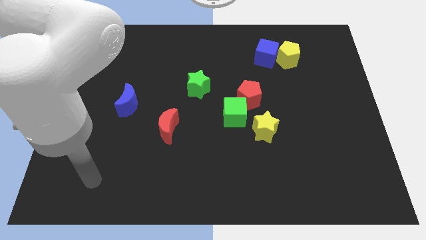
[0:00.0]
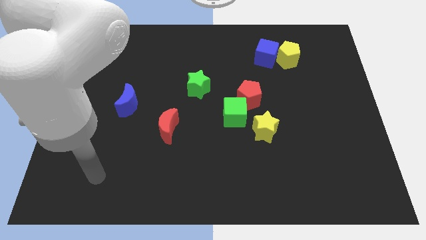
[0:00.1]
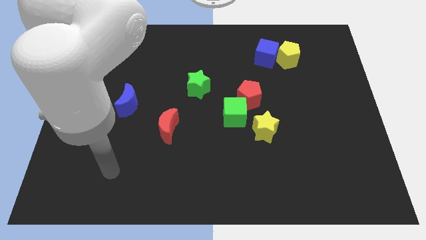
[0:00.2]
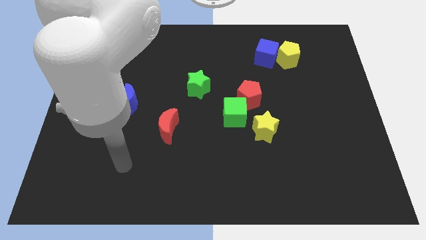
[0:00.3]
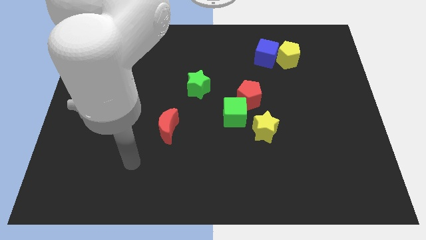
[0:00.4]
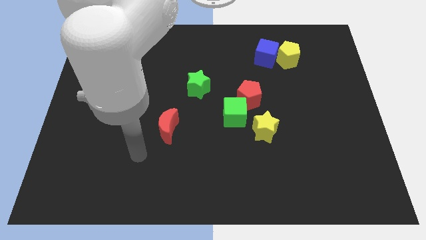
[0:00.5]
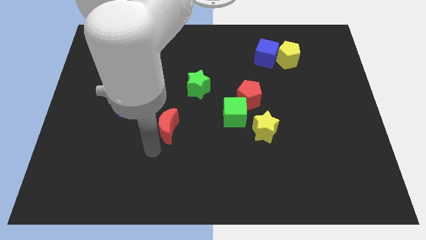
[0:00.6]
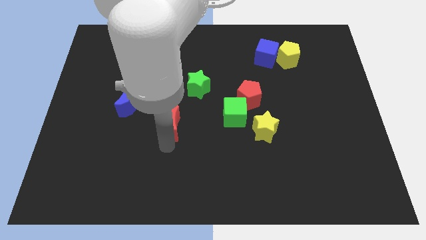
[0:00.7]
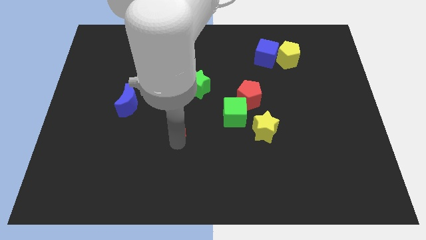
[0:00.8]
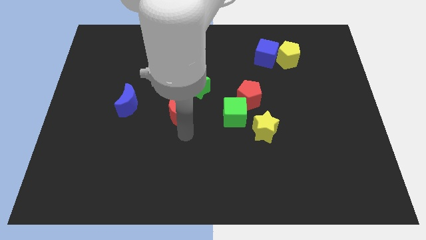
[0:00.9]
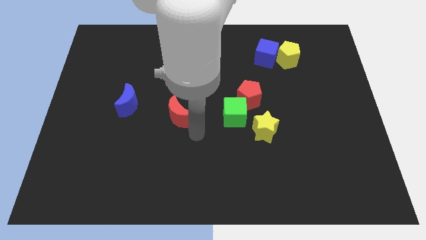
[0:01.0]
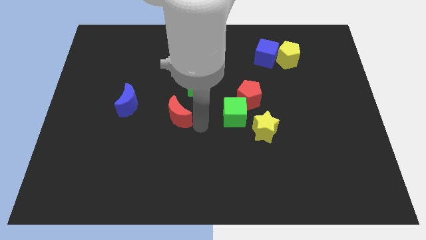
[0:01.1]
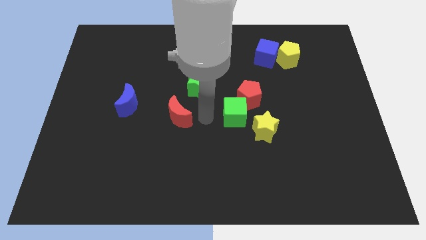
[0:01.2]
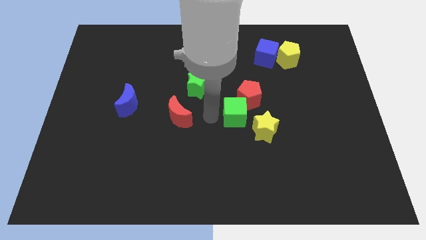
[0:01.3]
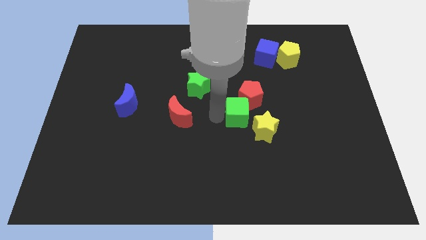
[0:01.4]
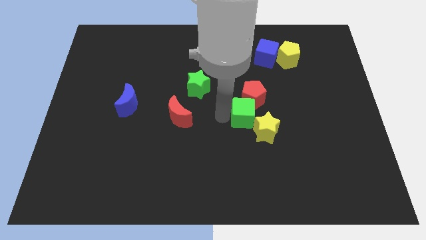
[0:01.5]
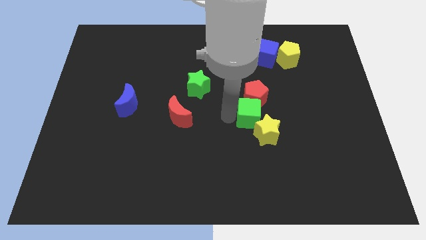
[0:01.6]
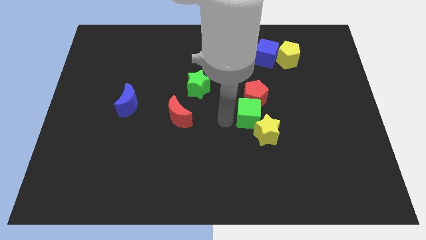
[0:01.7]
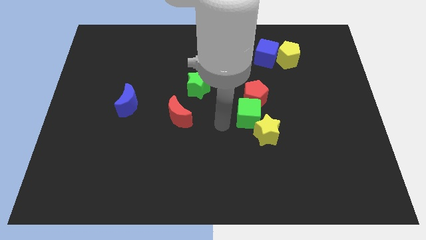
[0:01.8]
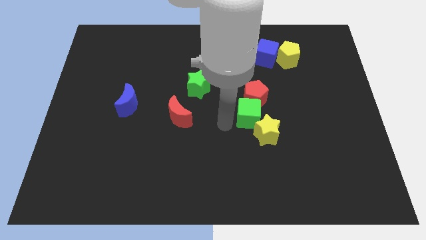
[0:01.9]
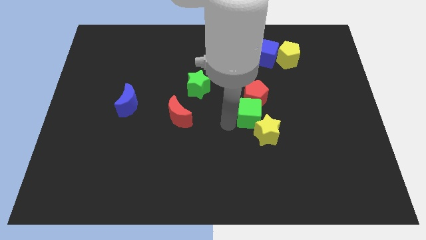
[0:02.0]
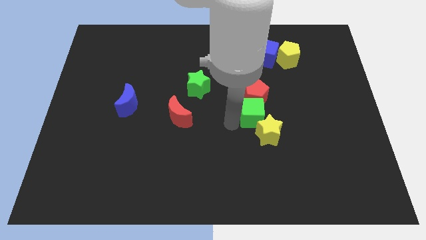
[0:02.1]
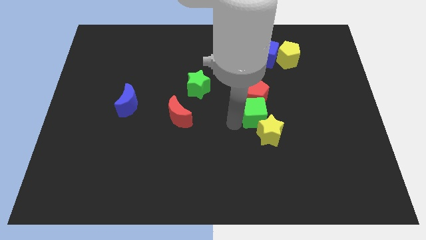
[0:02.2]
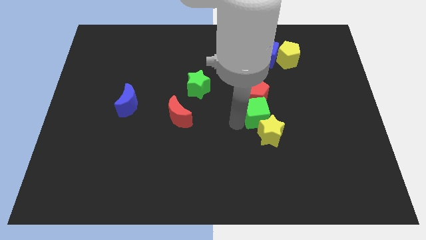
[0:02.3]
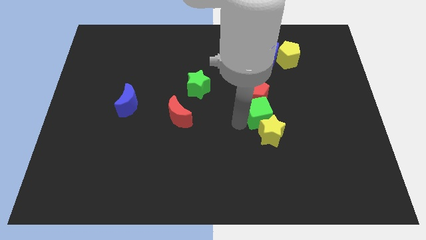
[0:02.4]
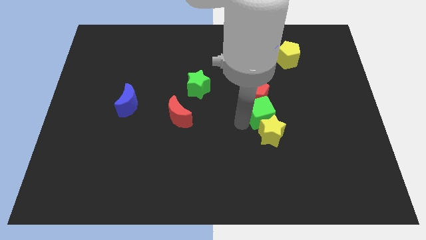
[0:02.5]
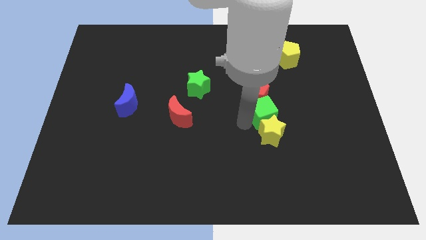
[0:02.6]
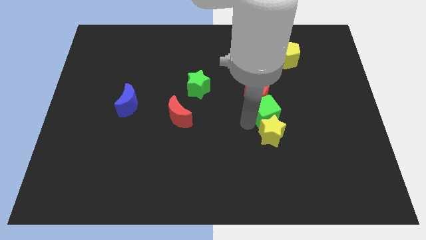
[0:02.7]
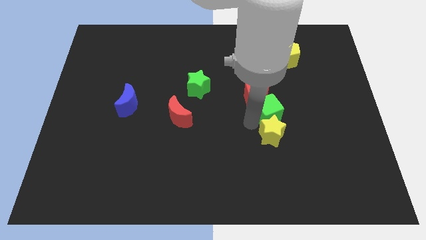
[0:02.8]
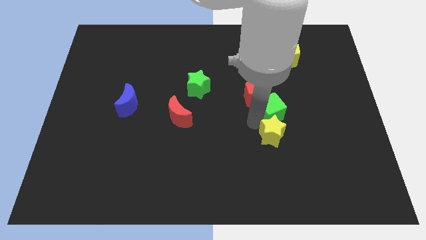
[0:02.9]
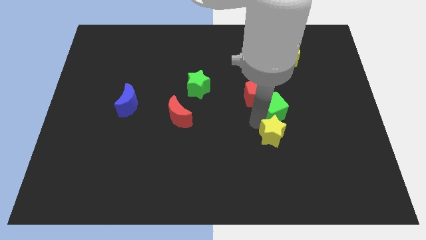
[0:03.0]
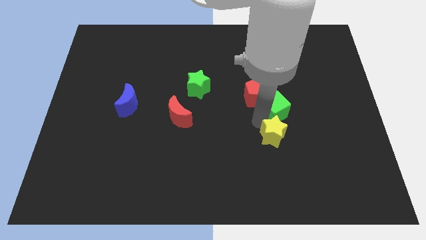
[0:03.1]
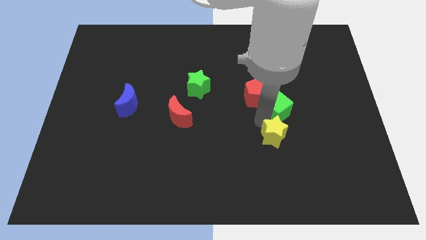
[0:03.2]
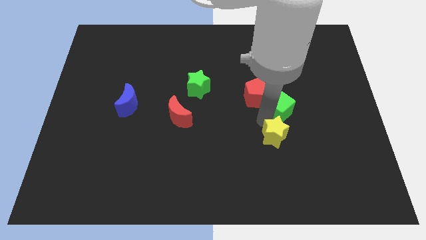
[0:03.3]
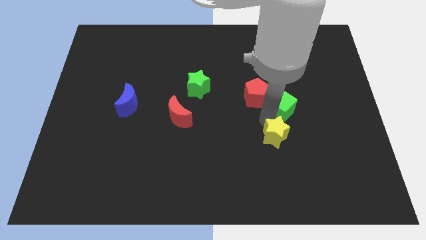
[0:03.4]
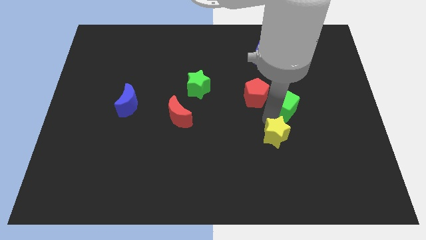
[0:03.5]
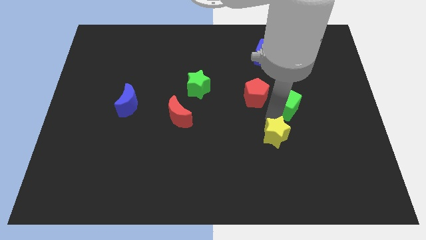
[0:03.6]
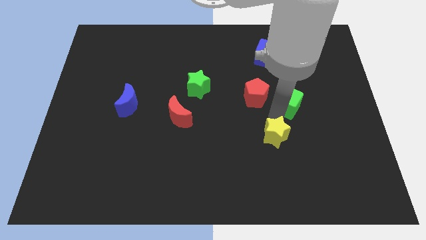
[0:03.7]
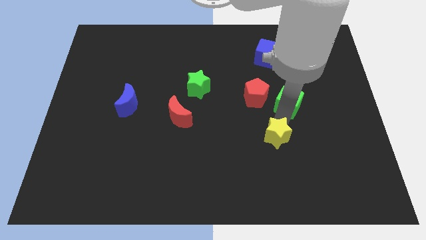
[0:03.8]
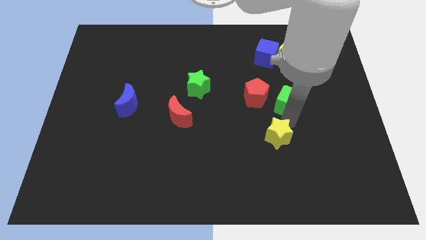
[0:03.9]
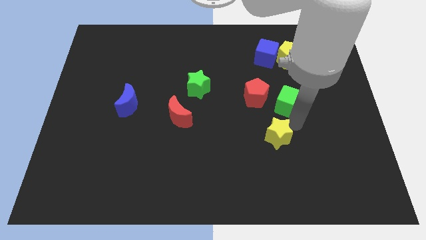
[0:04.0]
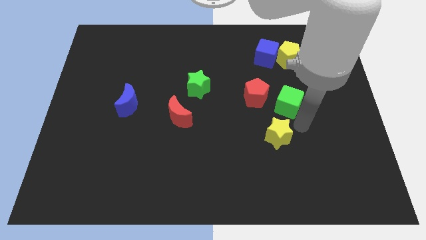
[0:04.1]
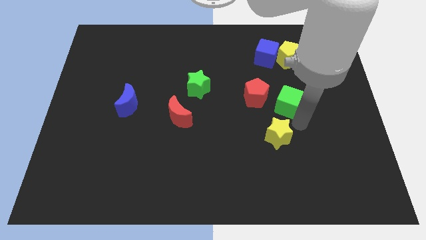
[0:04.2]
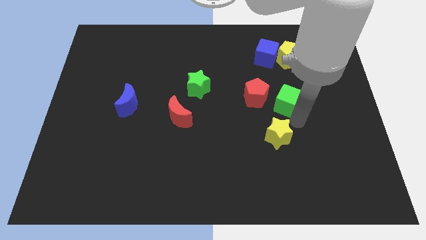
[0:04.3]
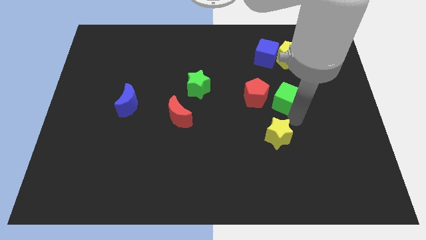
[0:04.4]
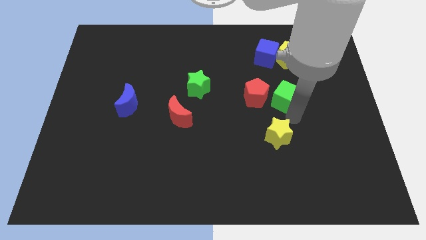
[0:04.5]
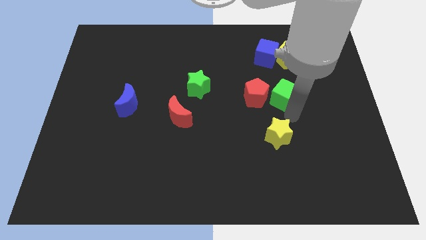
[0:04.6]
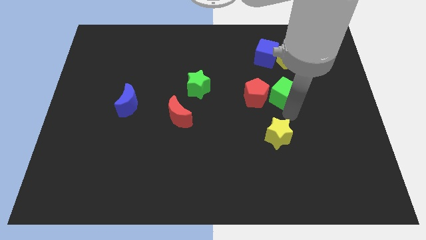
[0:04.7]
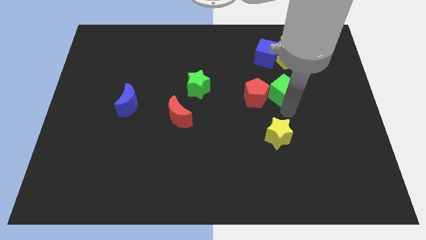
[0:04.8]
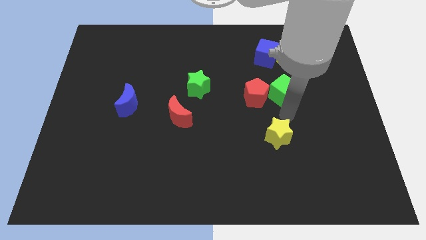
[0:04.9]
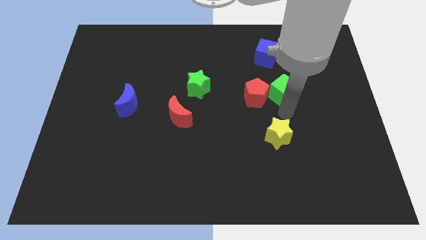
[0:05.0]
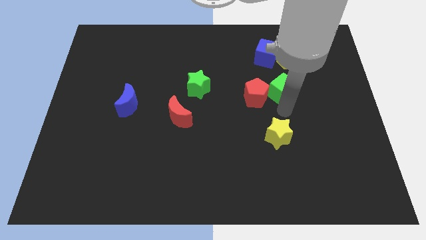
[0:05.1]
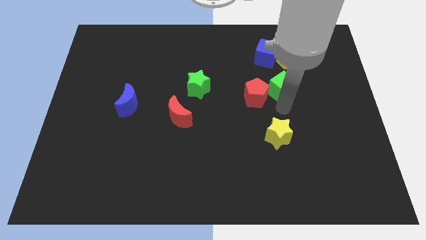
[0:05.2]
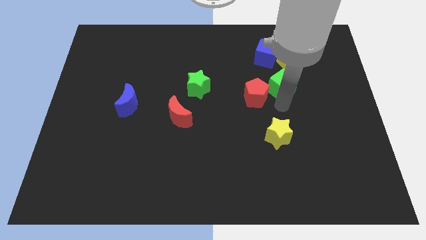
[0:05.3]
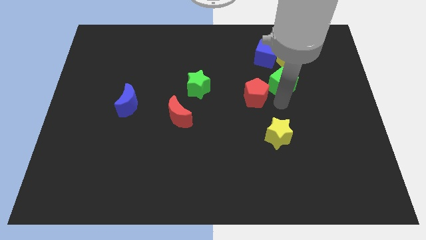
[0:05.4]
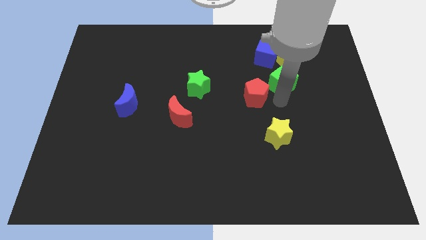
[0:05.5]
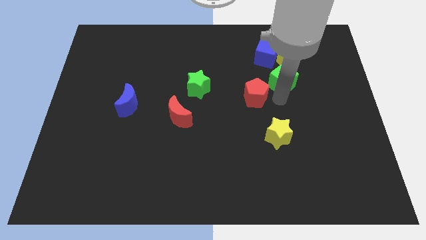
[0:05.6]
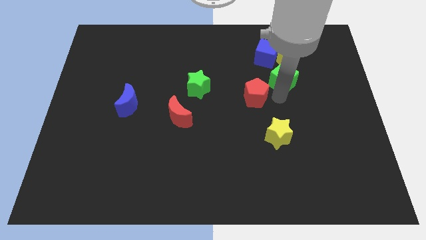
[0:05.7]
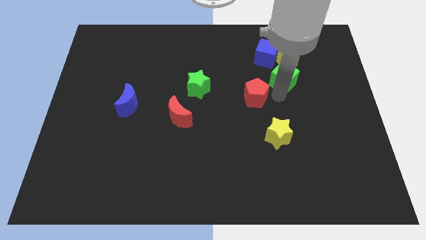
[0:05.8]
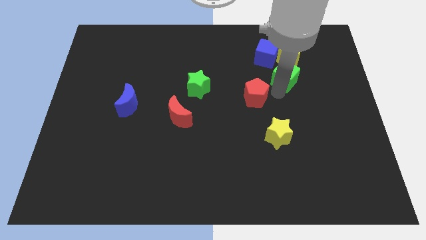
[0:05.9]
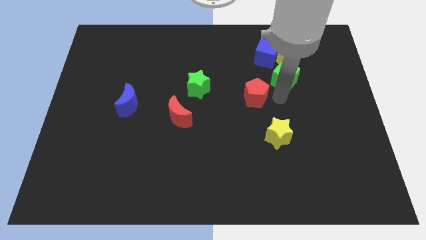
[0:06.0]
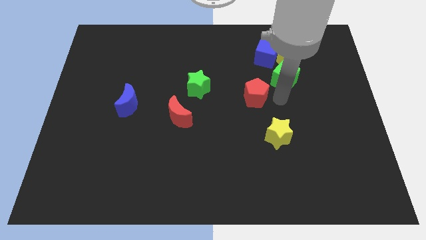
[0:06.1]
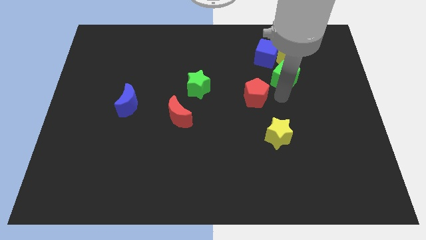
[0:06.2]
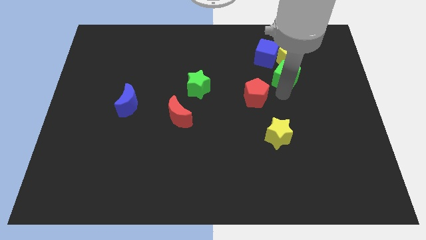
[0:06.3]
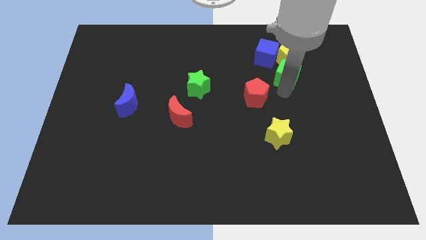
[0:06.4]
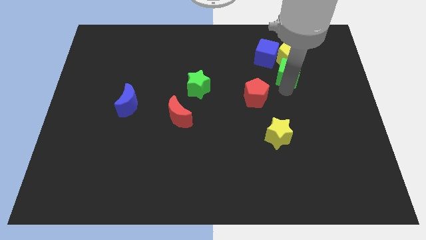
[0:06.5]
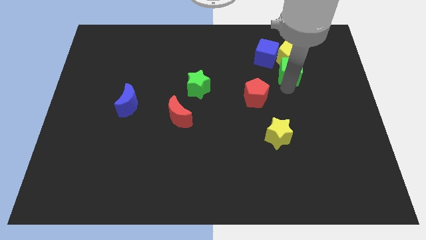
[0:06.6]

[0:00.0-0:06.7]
push the green cube close to the yellow pentagon

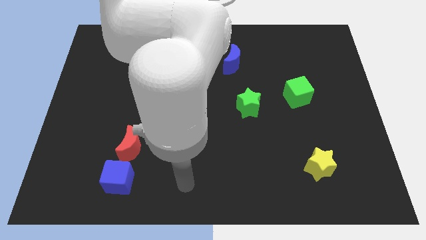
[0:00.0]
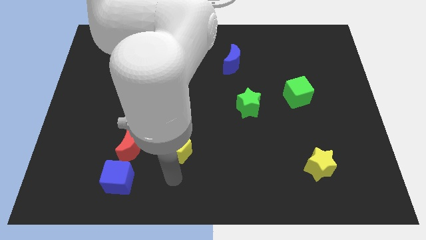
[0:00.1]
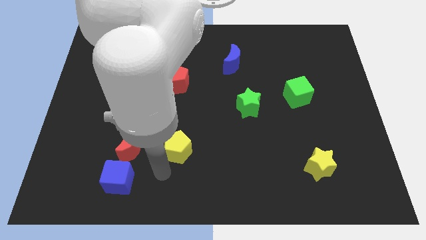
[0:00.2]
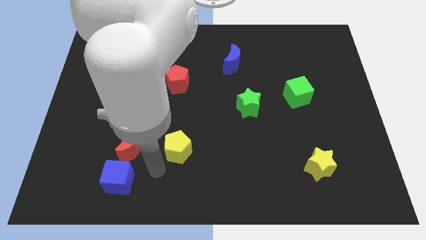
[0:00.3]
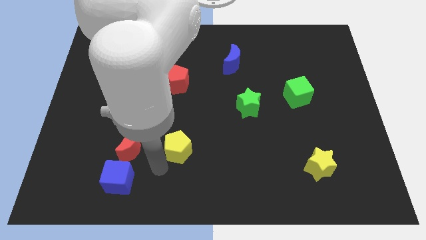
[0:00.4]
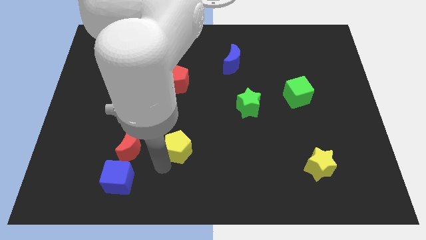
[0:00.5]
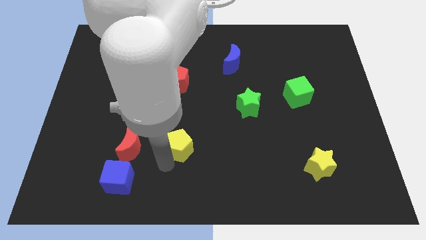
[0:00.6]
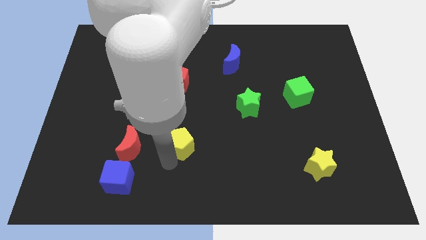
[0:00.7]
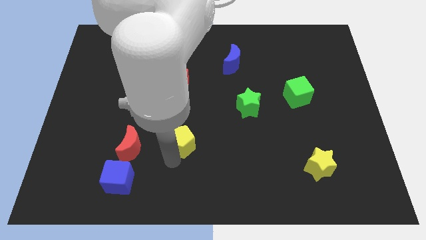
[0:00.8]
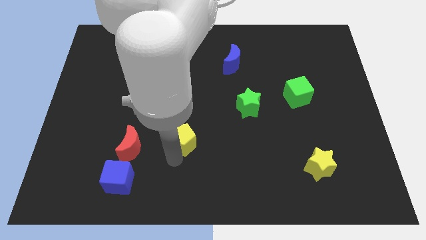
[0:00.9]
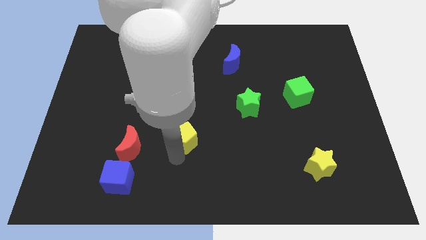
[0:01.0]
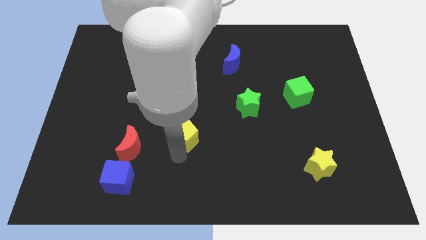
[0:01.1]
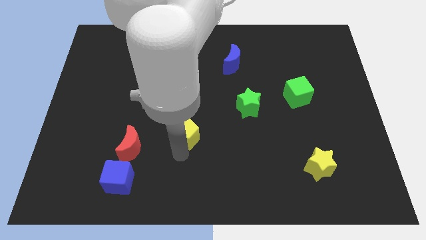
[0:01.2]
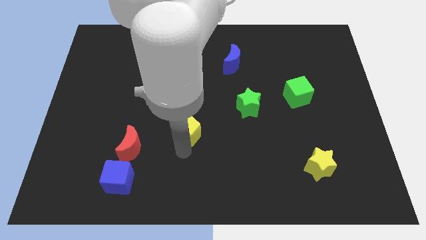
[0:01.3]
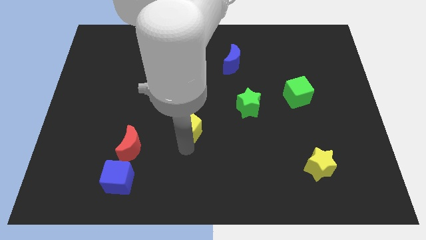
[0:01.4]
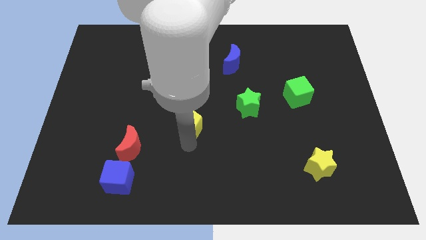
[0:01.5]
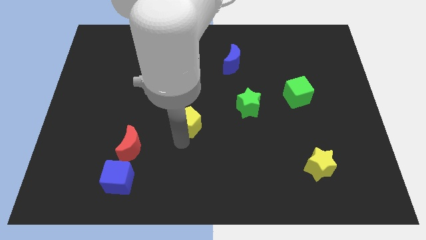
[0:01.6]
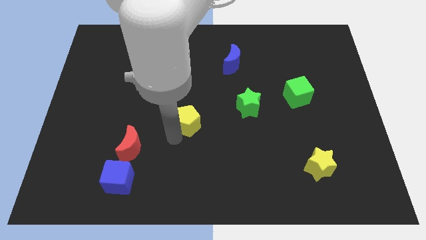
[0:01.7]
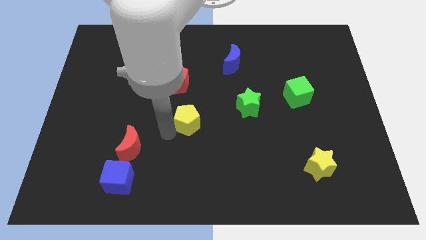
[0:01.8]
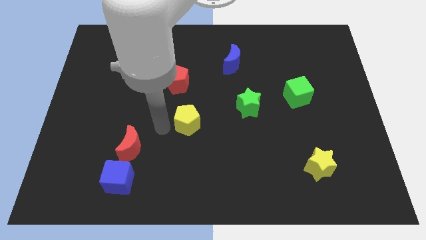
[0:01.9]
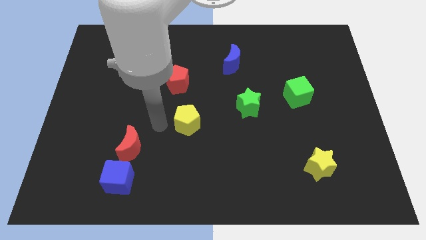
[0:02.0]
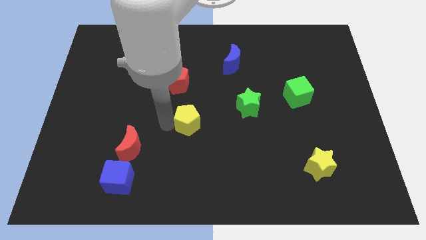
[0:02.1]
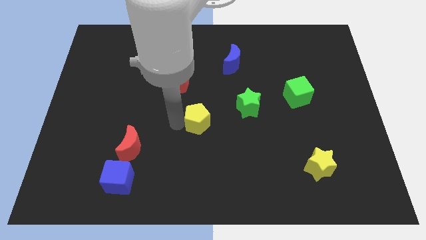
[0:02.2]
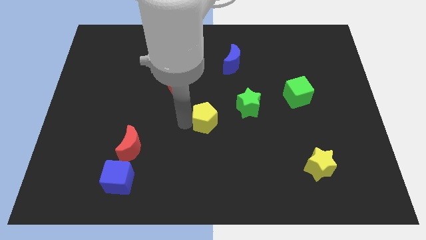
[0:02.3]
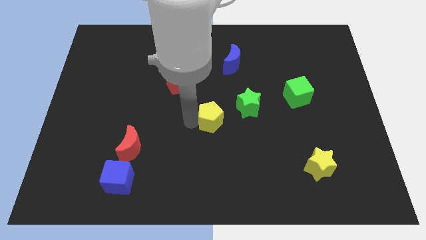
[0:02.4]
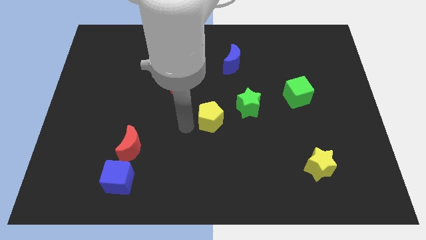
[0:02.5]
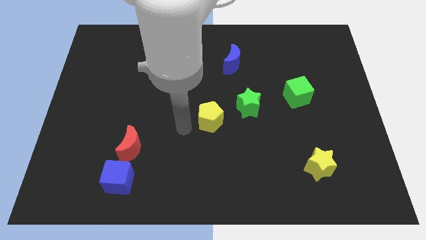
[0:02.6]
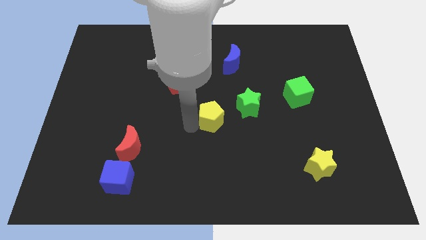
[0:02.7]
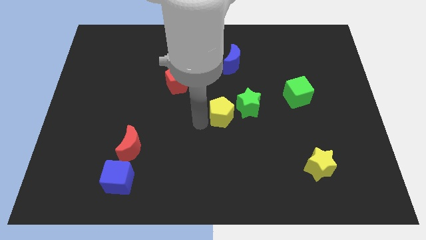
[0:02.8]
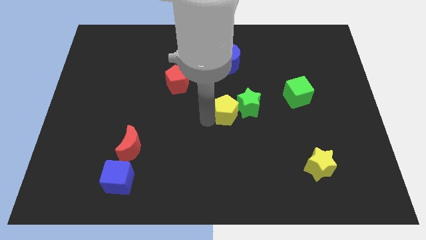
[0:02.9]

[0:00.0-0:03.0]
slide the yellow pentagon towards the green star
